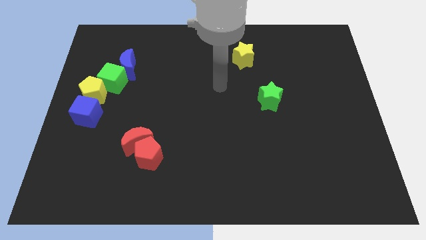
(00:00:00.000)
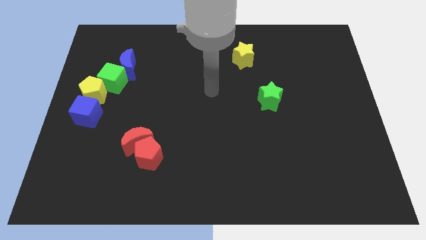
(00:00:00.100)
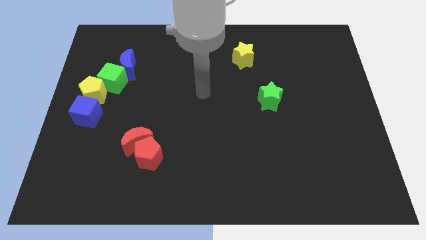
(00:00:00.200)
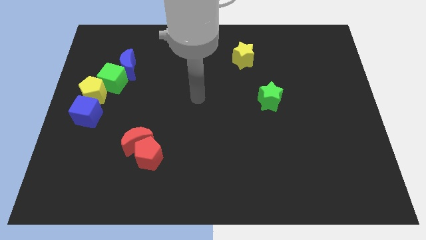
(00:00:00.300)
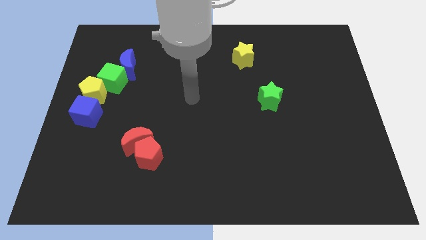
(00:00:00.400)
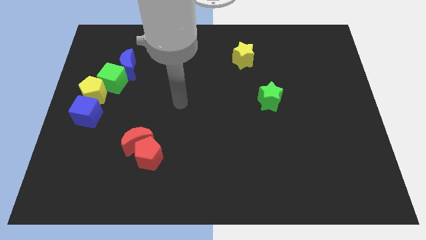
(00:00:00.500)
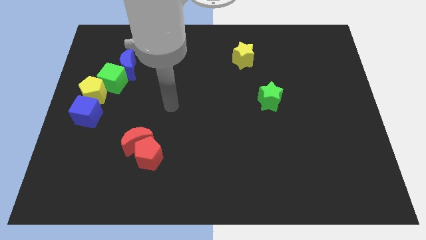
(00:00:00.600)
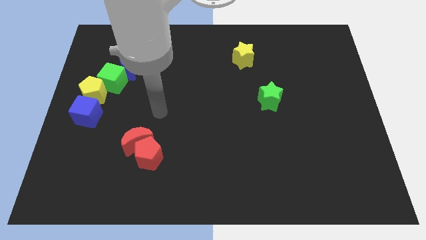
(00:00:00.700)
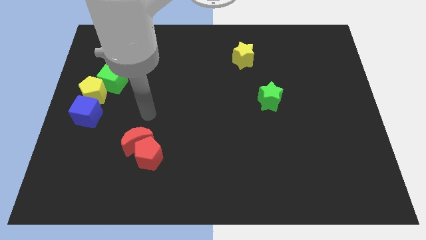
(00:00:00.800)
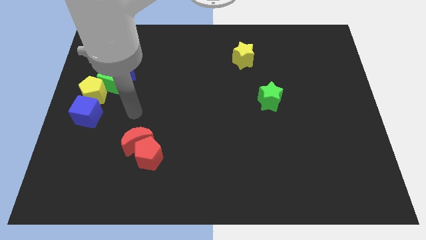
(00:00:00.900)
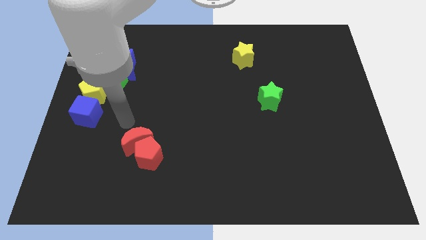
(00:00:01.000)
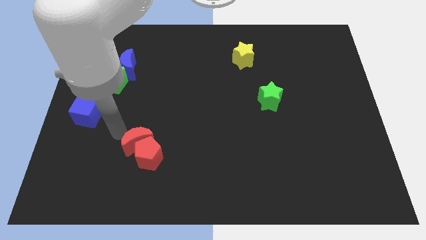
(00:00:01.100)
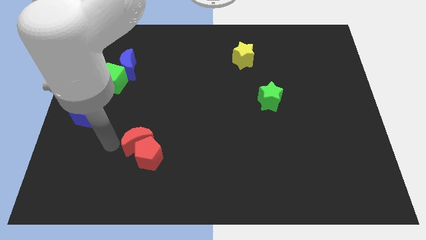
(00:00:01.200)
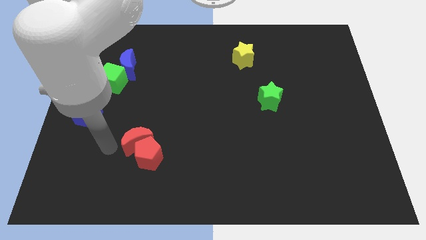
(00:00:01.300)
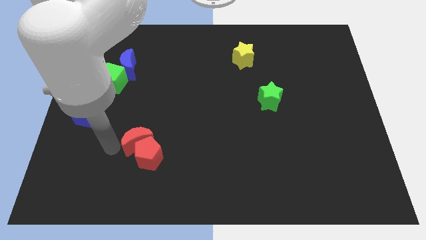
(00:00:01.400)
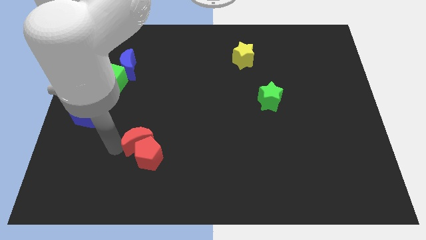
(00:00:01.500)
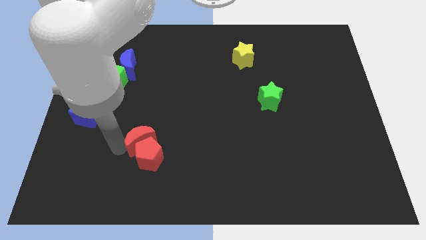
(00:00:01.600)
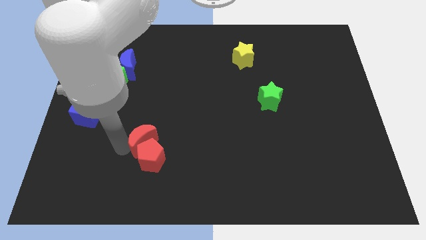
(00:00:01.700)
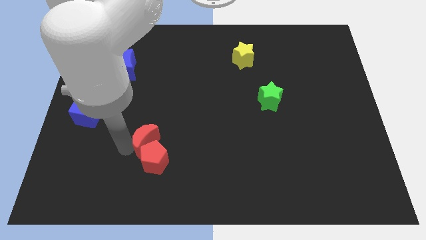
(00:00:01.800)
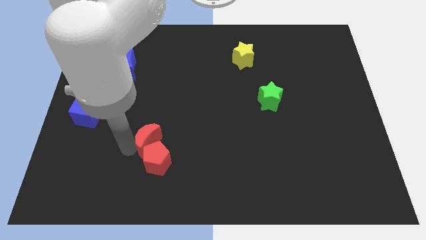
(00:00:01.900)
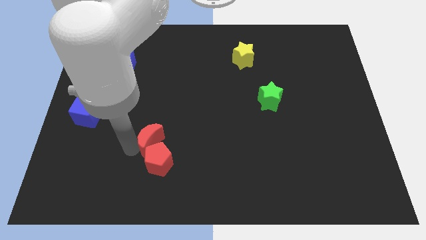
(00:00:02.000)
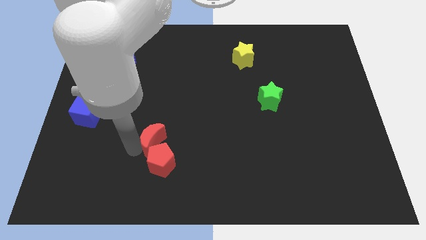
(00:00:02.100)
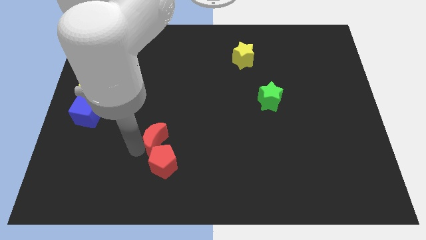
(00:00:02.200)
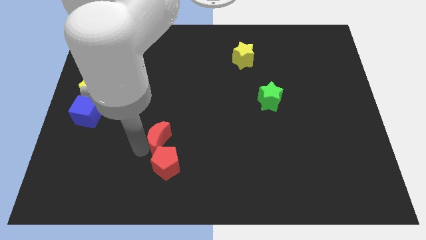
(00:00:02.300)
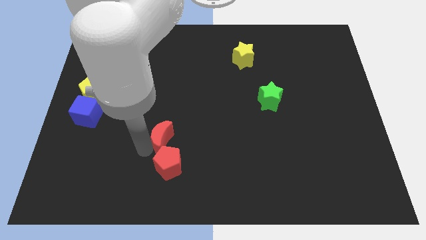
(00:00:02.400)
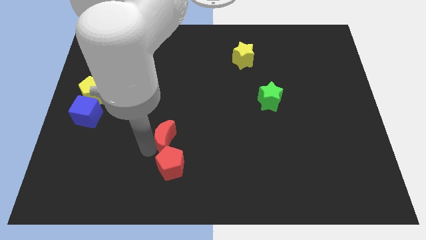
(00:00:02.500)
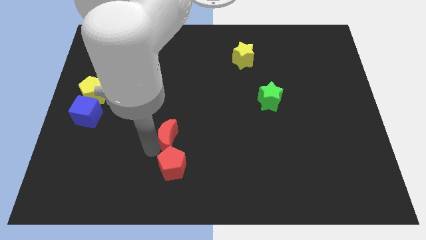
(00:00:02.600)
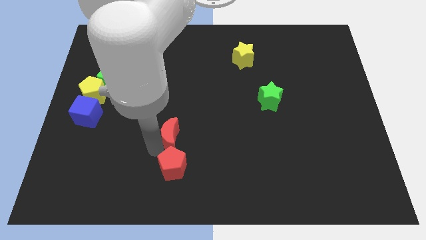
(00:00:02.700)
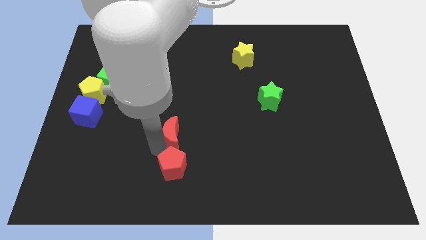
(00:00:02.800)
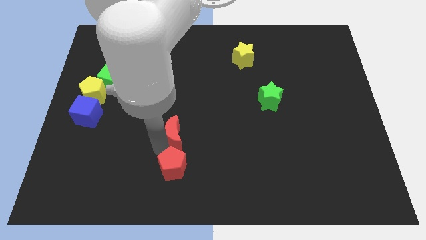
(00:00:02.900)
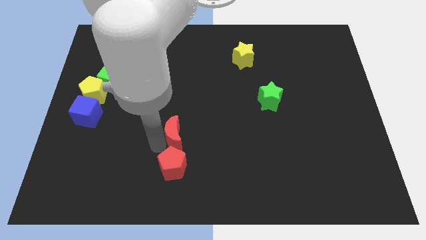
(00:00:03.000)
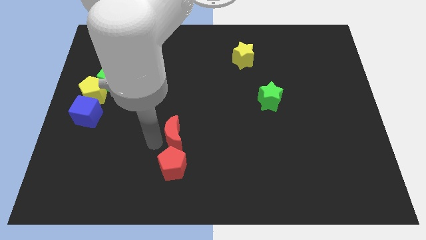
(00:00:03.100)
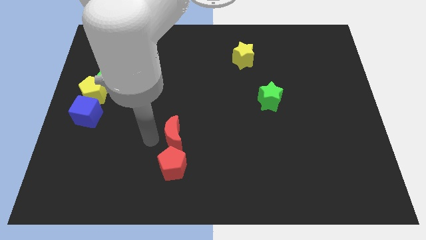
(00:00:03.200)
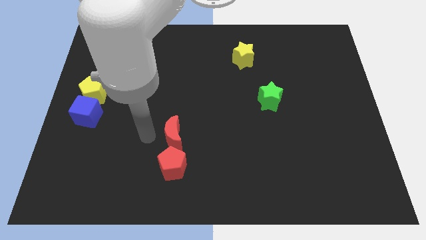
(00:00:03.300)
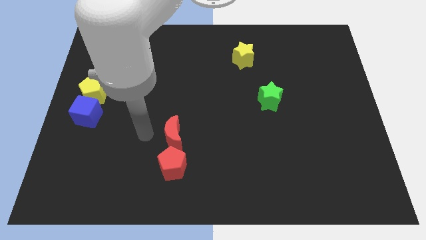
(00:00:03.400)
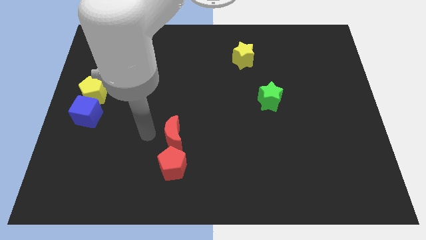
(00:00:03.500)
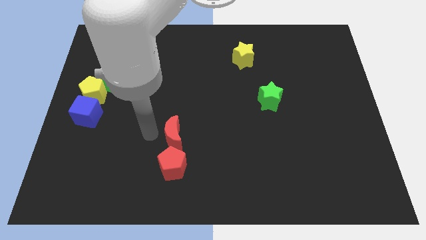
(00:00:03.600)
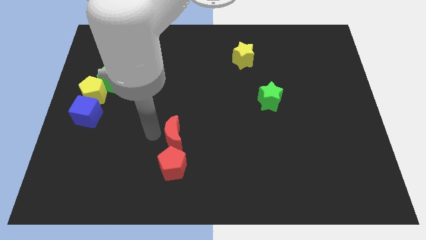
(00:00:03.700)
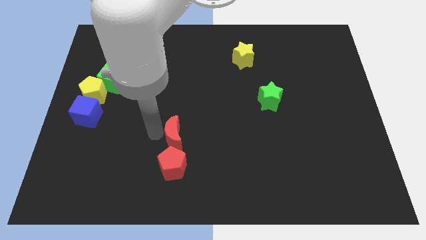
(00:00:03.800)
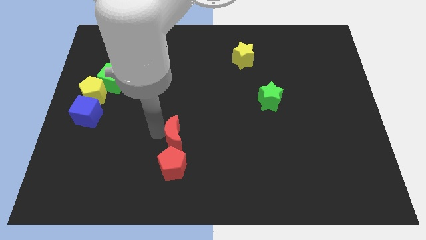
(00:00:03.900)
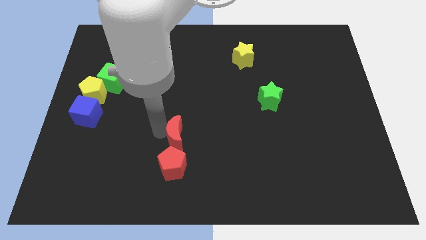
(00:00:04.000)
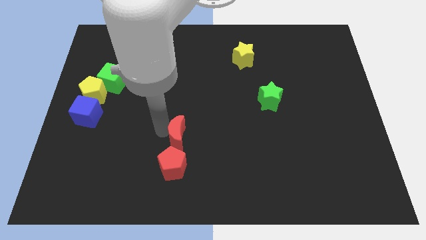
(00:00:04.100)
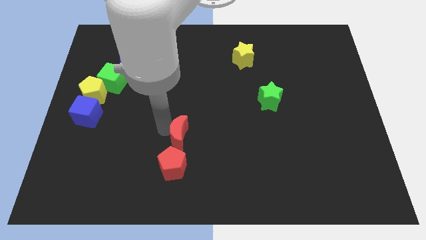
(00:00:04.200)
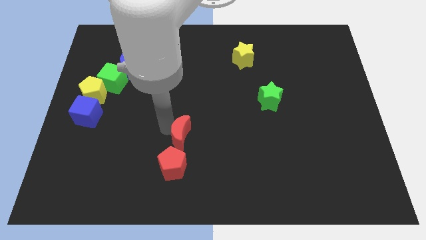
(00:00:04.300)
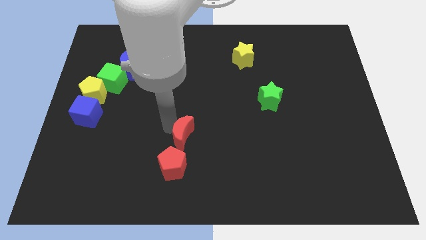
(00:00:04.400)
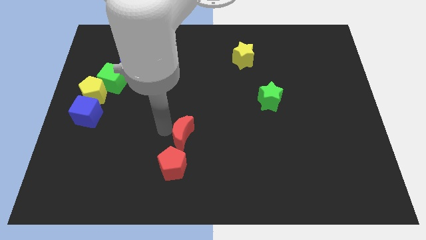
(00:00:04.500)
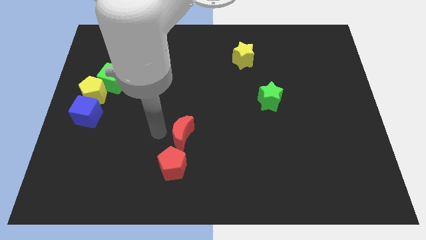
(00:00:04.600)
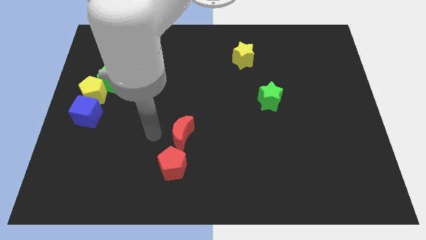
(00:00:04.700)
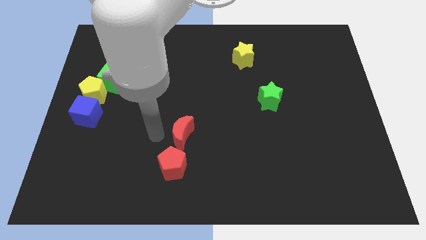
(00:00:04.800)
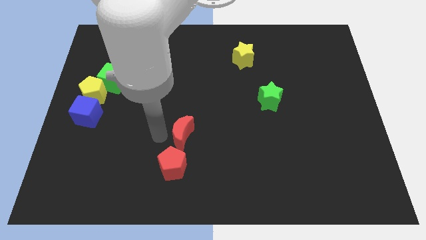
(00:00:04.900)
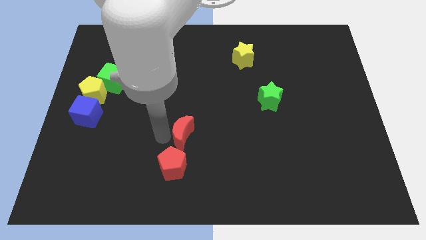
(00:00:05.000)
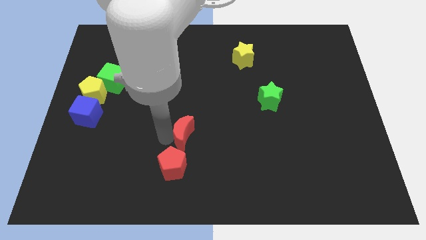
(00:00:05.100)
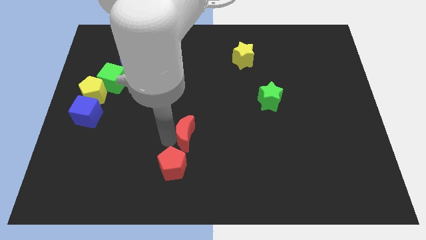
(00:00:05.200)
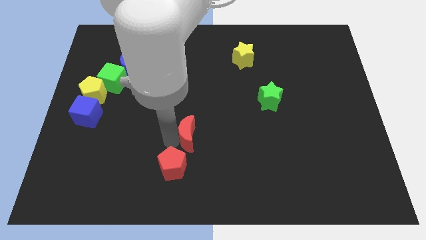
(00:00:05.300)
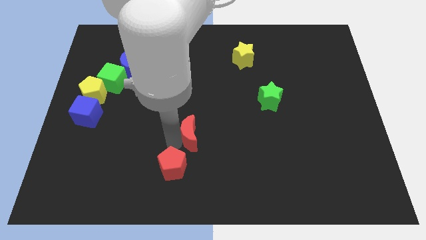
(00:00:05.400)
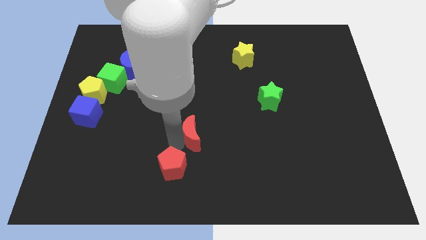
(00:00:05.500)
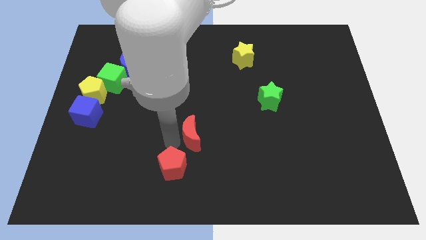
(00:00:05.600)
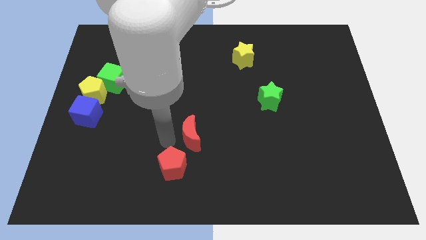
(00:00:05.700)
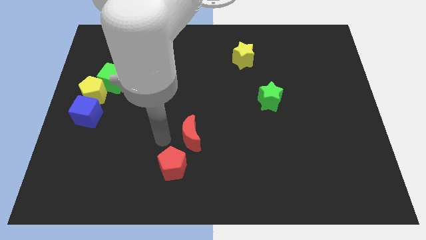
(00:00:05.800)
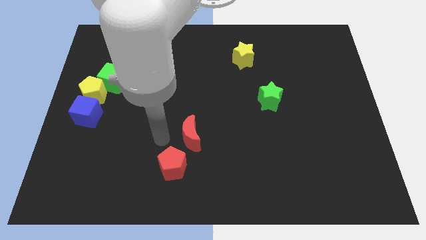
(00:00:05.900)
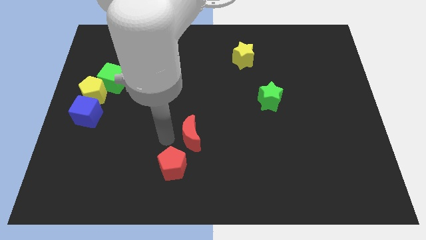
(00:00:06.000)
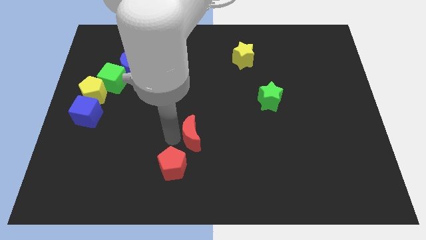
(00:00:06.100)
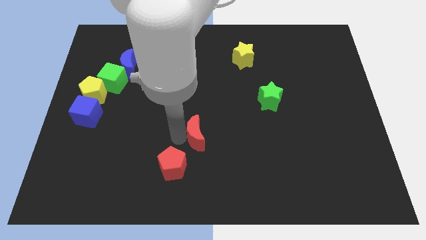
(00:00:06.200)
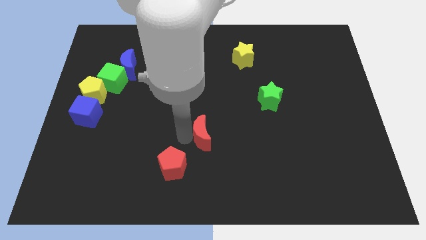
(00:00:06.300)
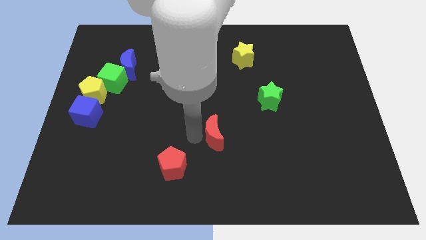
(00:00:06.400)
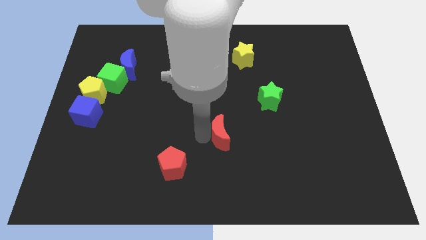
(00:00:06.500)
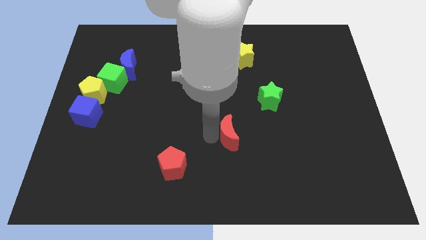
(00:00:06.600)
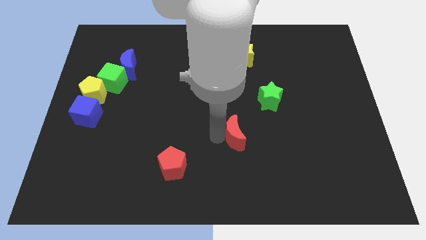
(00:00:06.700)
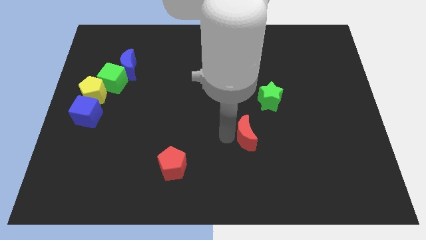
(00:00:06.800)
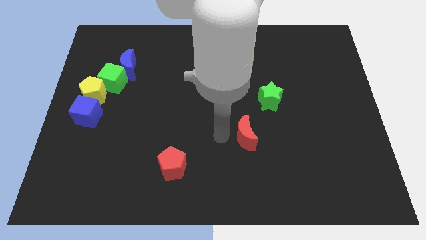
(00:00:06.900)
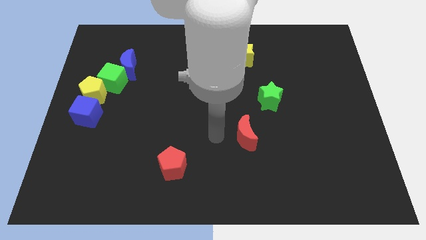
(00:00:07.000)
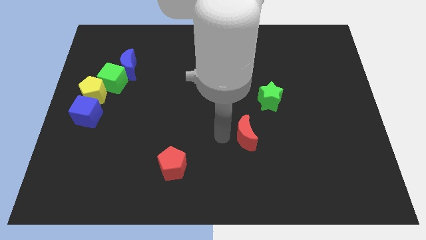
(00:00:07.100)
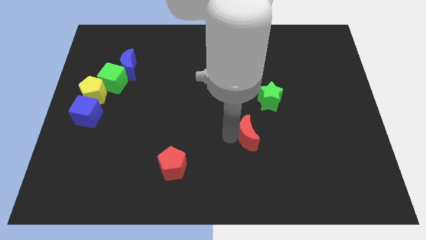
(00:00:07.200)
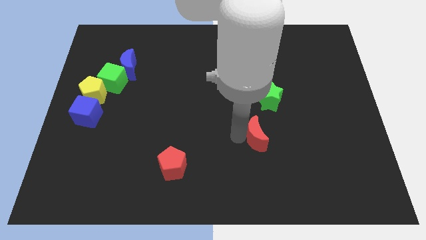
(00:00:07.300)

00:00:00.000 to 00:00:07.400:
slide the red moon to the bottom of the green star

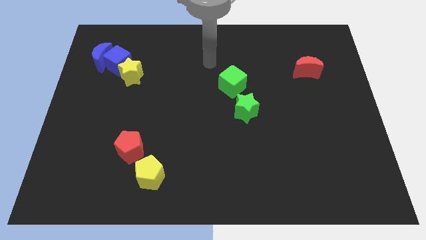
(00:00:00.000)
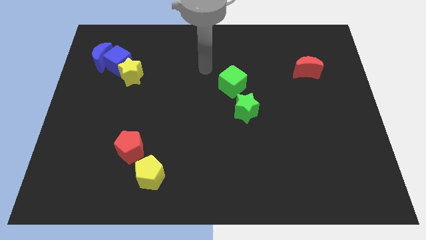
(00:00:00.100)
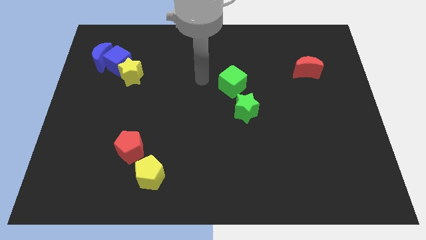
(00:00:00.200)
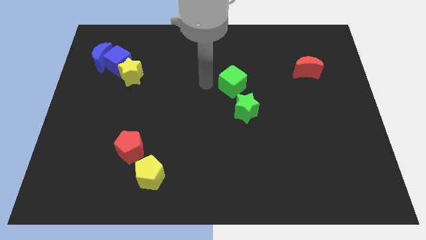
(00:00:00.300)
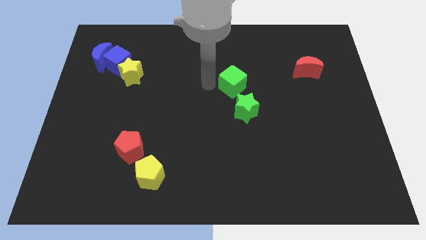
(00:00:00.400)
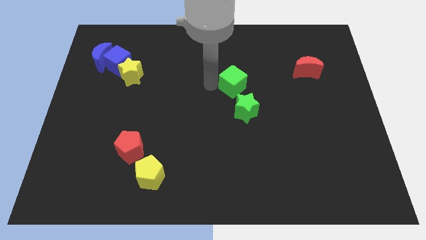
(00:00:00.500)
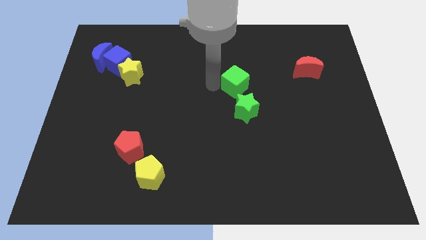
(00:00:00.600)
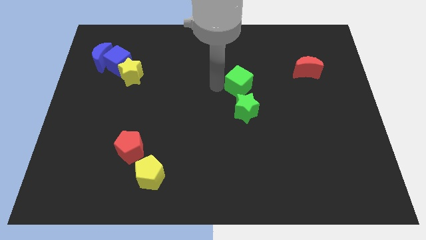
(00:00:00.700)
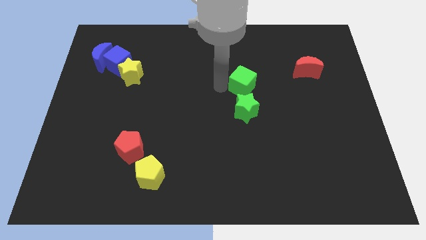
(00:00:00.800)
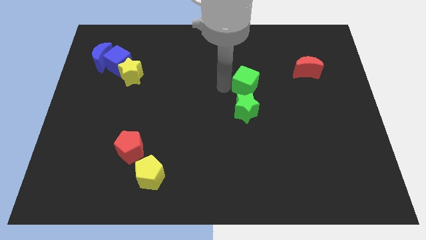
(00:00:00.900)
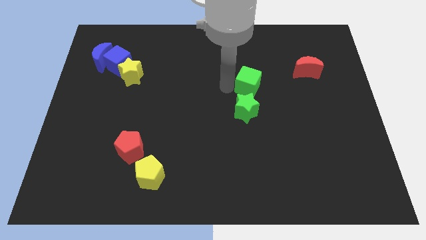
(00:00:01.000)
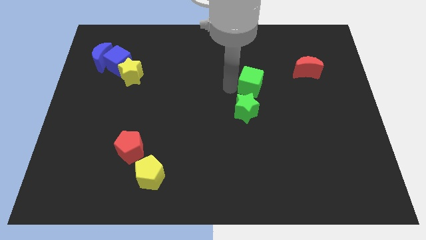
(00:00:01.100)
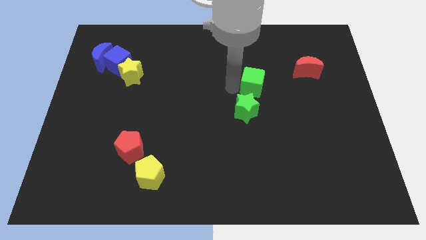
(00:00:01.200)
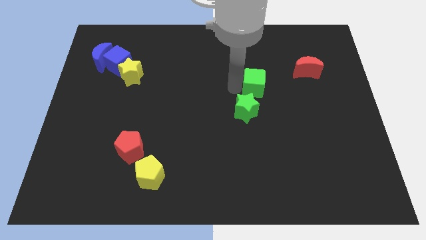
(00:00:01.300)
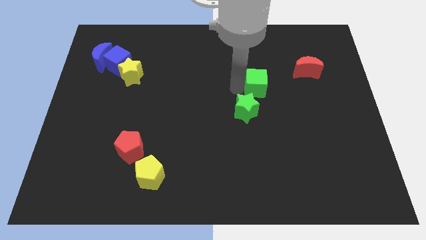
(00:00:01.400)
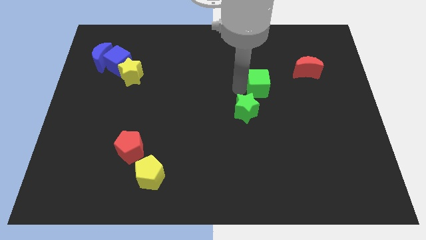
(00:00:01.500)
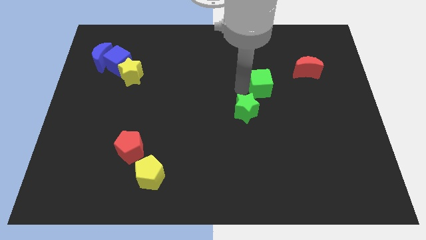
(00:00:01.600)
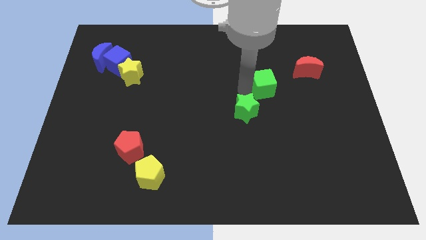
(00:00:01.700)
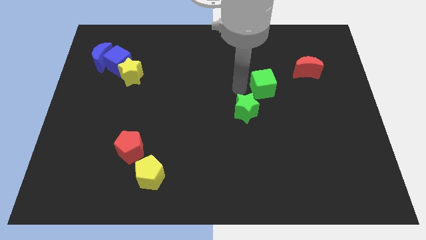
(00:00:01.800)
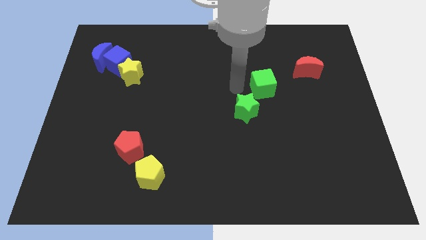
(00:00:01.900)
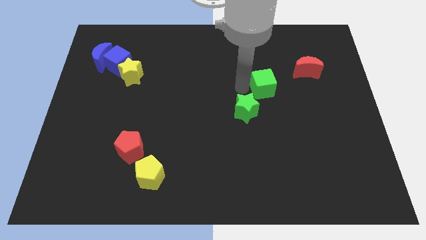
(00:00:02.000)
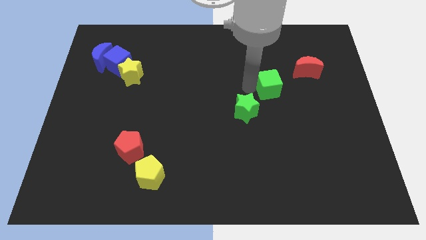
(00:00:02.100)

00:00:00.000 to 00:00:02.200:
push the green cube diagonally down and to the left of the red moon
